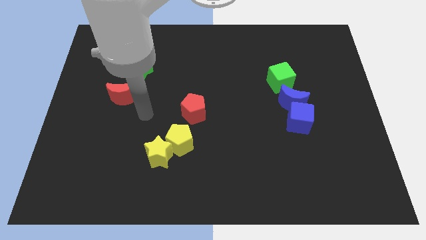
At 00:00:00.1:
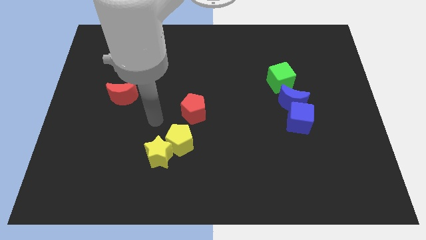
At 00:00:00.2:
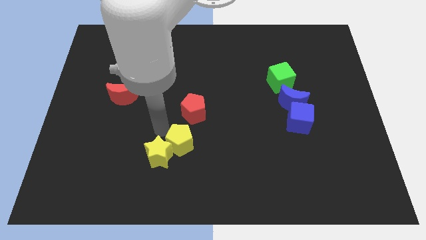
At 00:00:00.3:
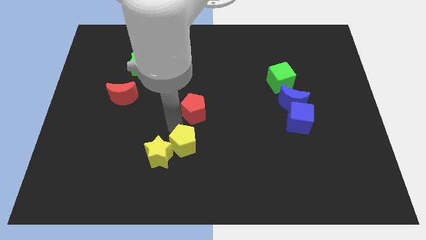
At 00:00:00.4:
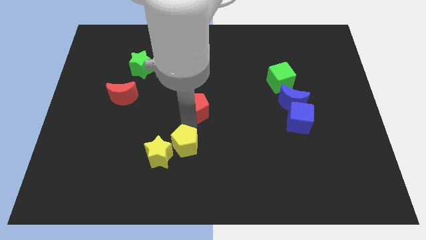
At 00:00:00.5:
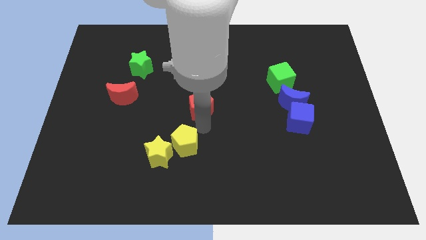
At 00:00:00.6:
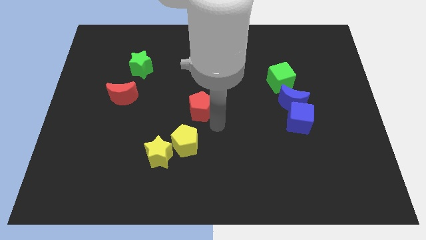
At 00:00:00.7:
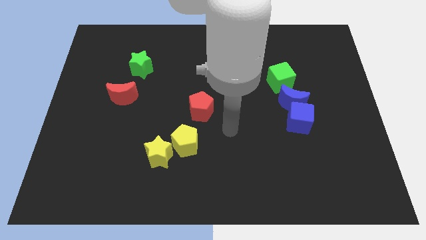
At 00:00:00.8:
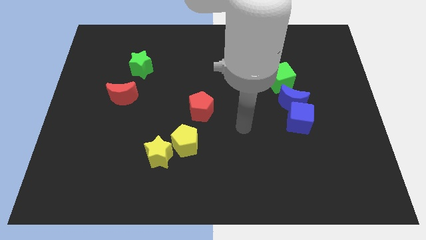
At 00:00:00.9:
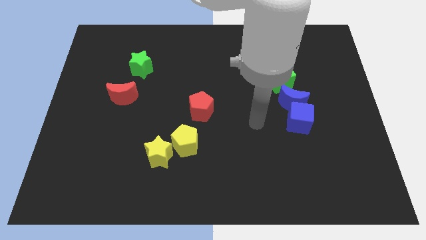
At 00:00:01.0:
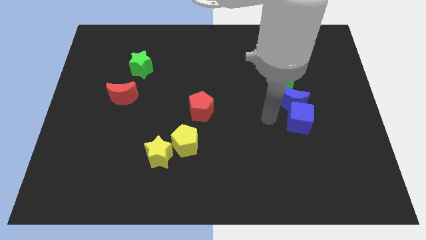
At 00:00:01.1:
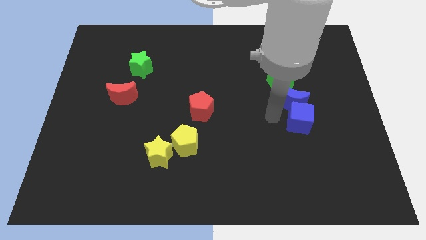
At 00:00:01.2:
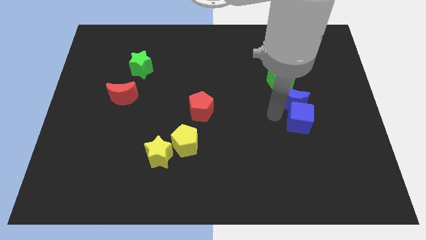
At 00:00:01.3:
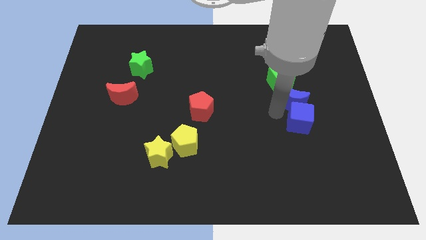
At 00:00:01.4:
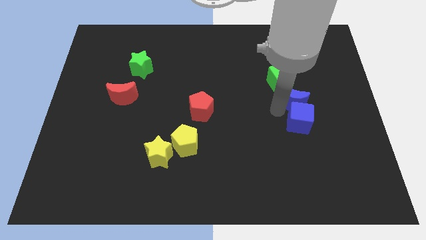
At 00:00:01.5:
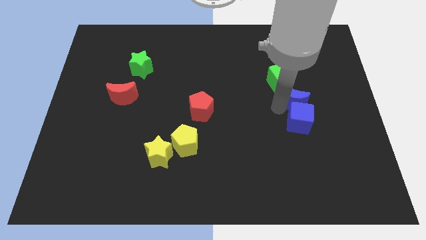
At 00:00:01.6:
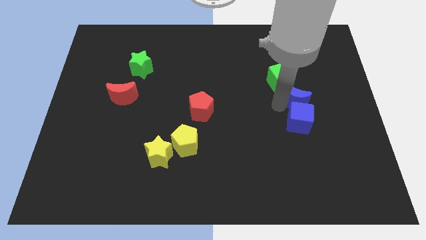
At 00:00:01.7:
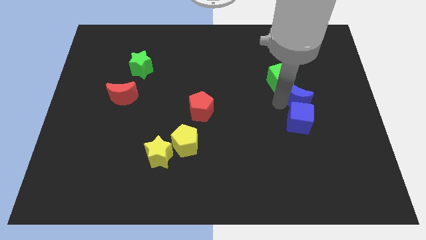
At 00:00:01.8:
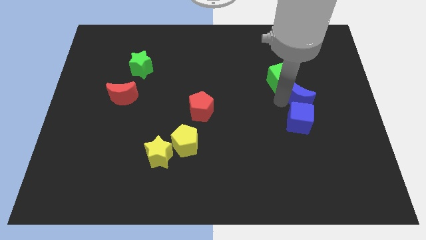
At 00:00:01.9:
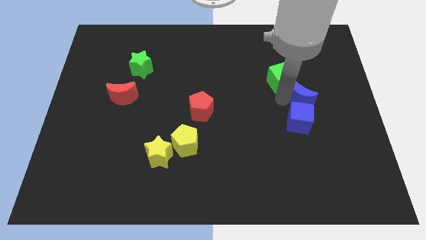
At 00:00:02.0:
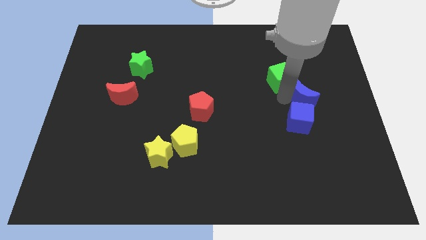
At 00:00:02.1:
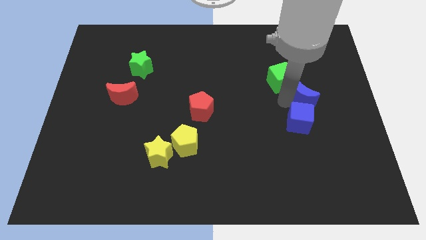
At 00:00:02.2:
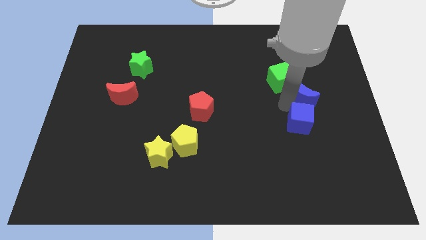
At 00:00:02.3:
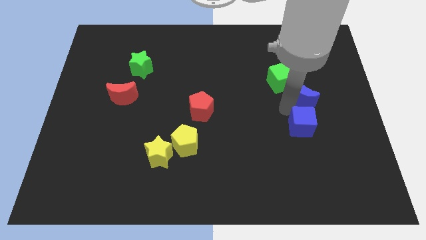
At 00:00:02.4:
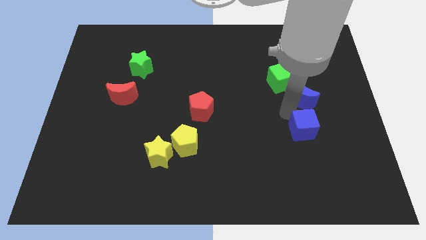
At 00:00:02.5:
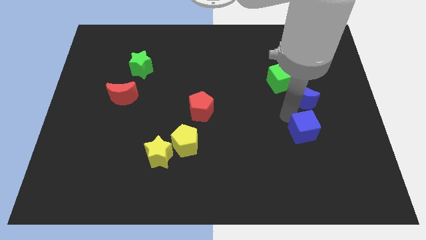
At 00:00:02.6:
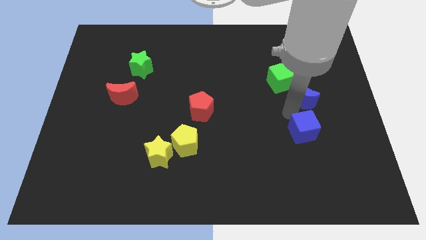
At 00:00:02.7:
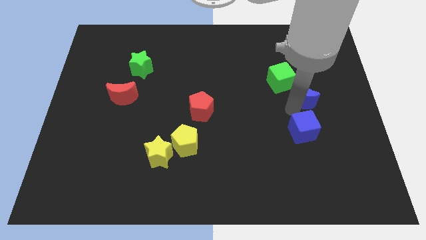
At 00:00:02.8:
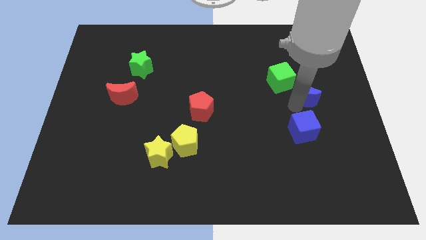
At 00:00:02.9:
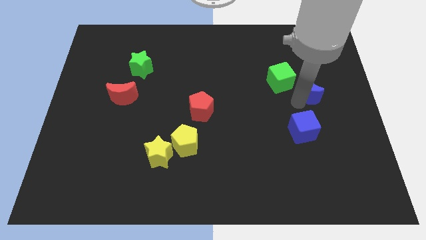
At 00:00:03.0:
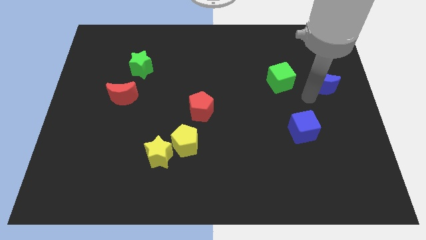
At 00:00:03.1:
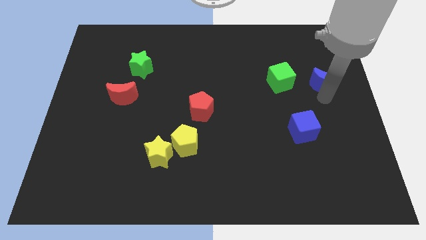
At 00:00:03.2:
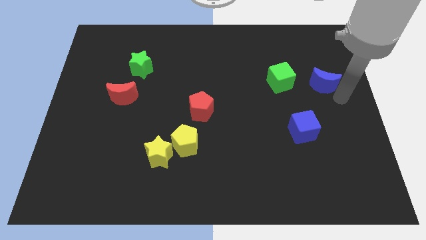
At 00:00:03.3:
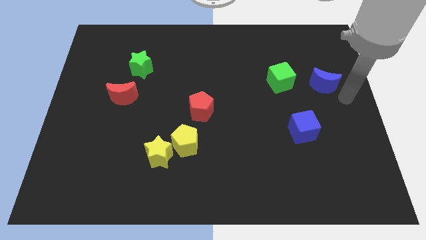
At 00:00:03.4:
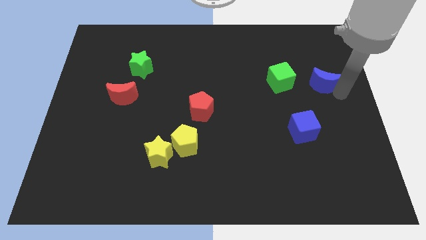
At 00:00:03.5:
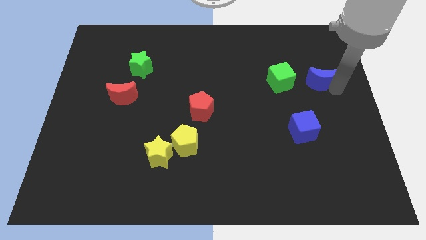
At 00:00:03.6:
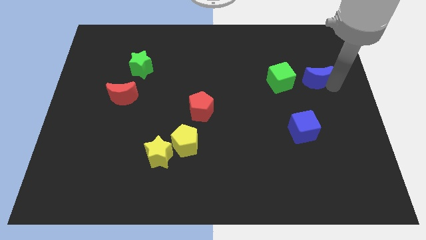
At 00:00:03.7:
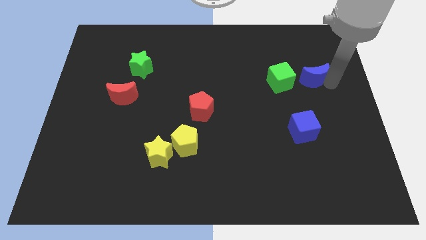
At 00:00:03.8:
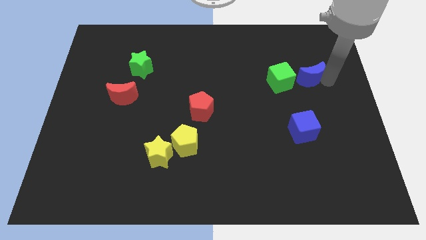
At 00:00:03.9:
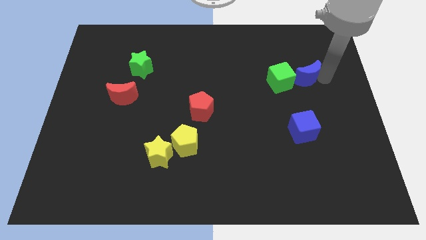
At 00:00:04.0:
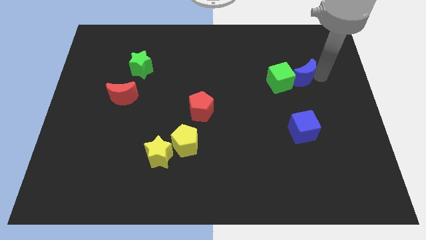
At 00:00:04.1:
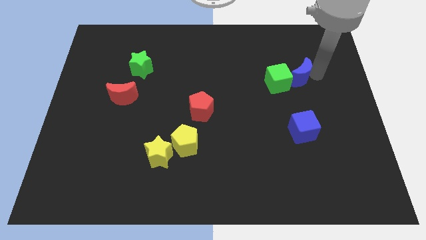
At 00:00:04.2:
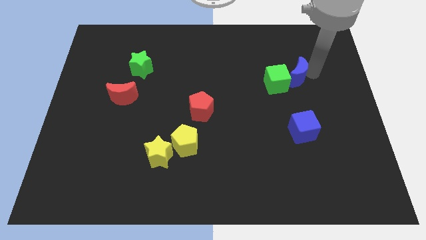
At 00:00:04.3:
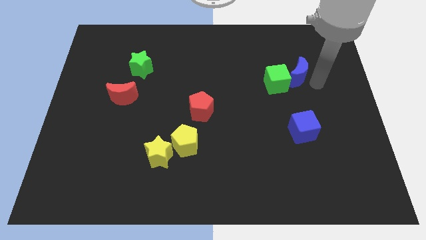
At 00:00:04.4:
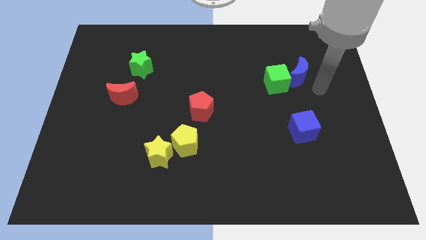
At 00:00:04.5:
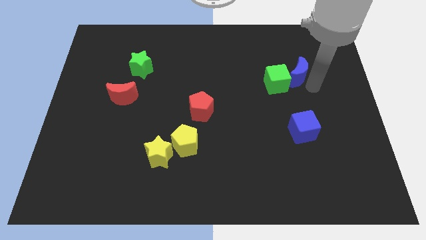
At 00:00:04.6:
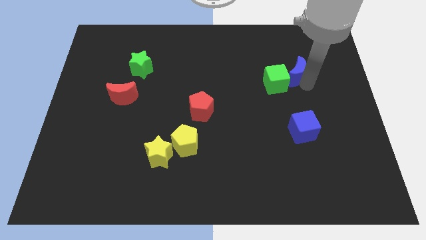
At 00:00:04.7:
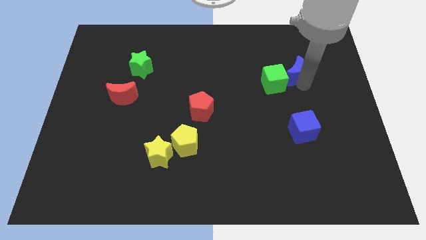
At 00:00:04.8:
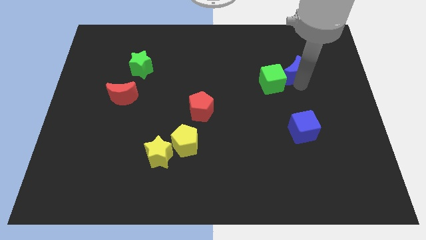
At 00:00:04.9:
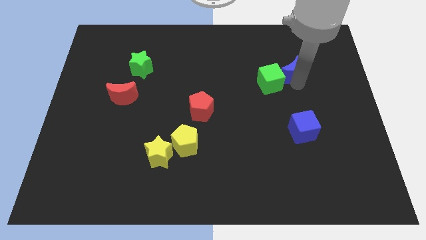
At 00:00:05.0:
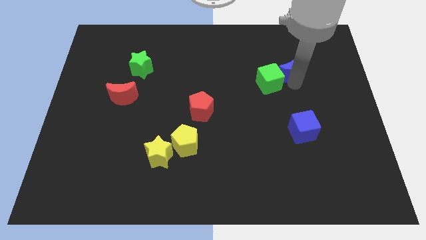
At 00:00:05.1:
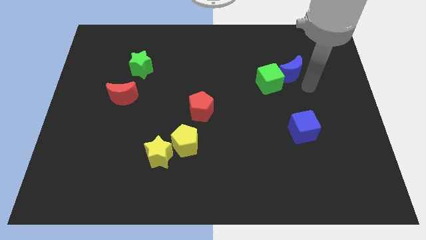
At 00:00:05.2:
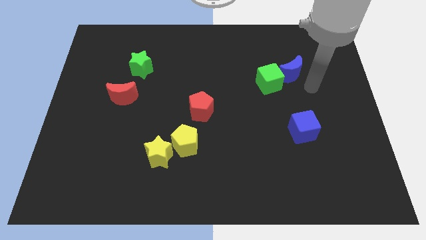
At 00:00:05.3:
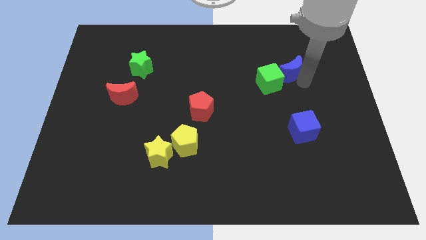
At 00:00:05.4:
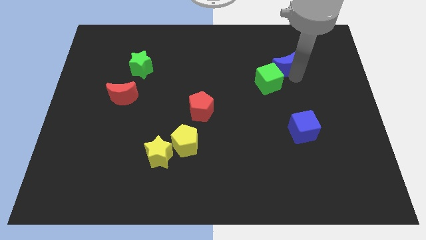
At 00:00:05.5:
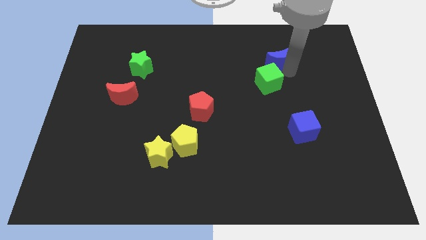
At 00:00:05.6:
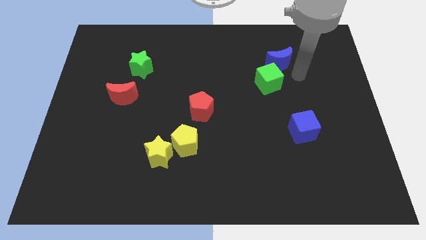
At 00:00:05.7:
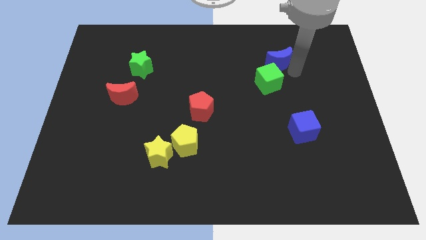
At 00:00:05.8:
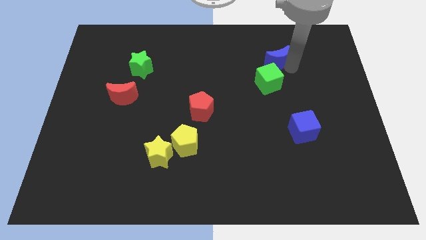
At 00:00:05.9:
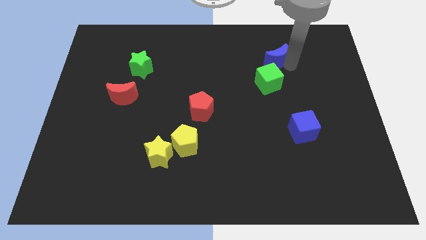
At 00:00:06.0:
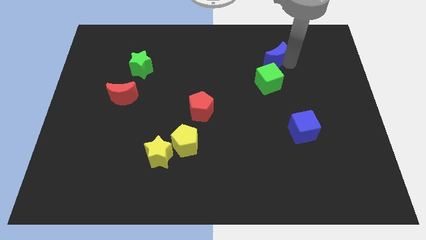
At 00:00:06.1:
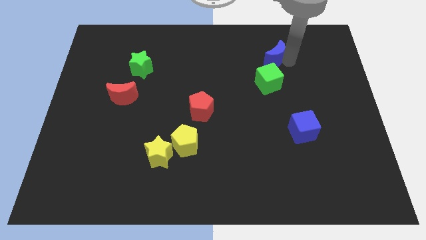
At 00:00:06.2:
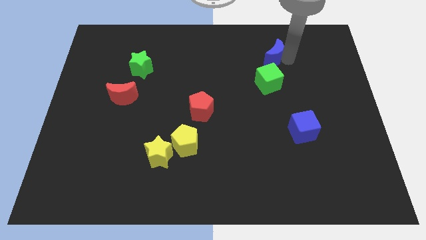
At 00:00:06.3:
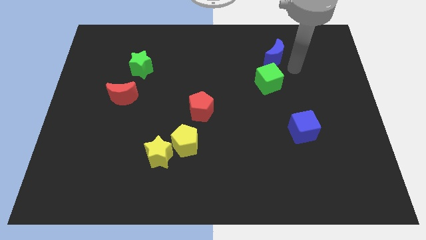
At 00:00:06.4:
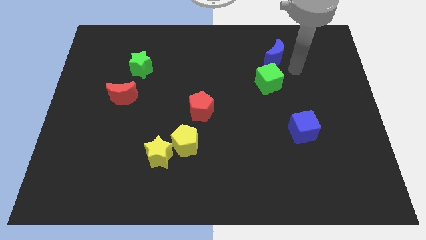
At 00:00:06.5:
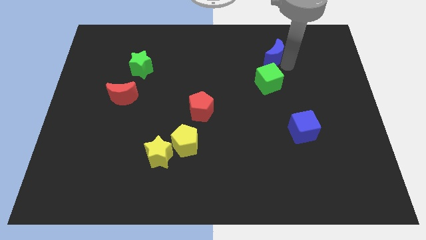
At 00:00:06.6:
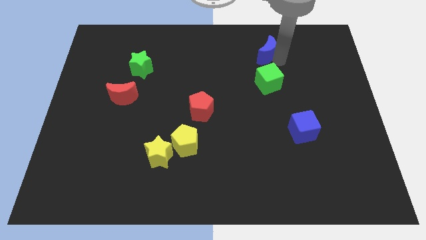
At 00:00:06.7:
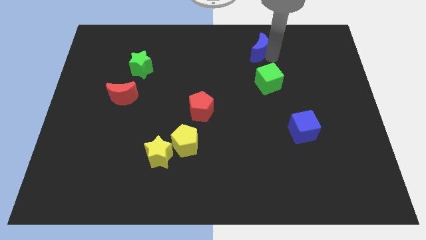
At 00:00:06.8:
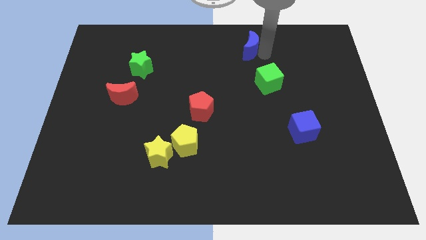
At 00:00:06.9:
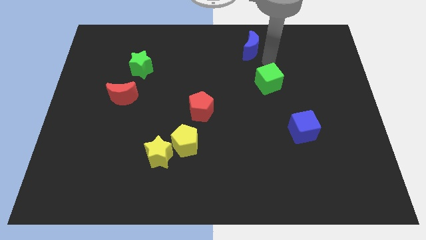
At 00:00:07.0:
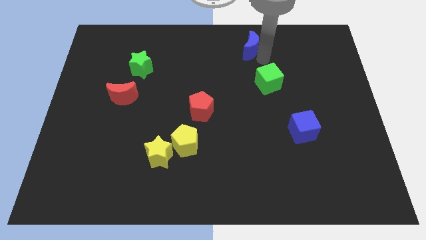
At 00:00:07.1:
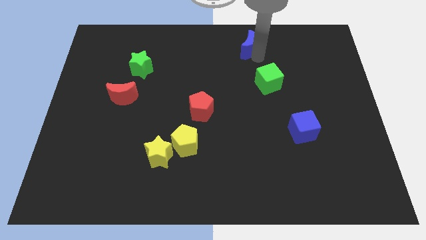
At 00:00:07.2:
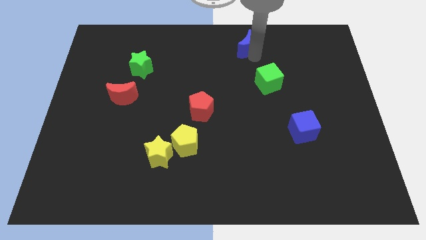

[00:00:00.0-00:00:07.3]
slide the blue moon to the towards your base
